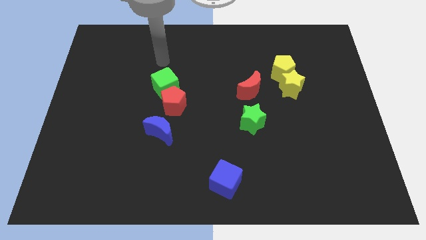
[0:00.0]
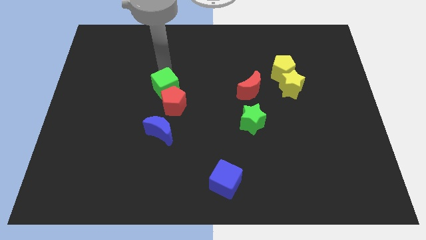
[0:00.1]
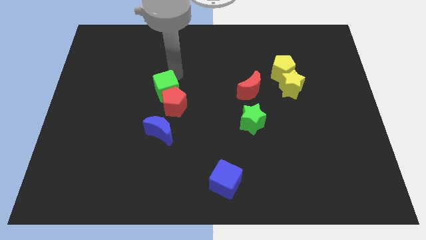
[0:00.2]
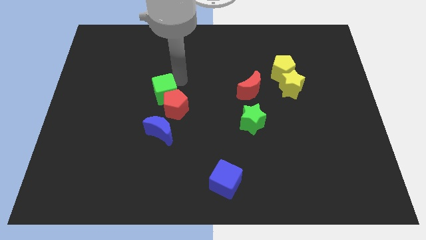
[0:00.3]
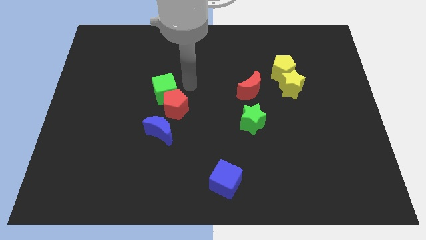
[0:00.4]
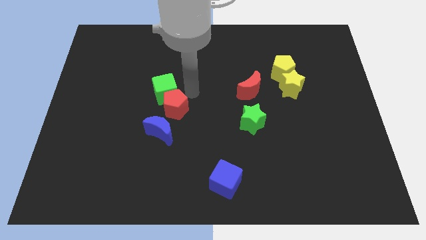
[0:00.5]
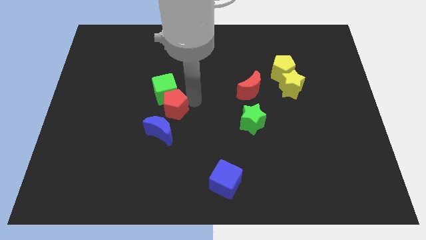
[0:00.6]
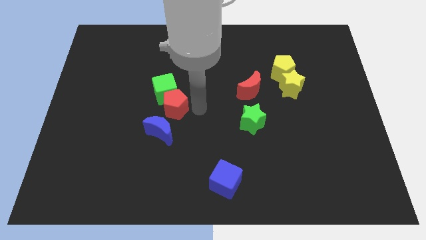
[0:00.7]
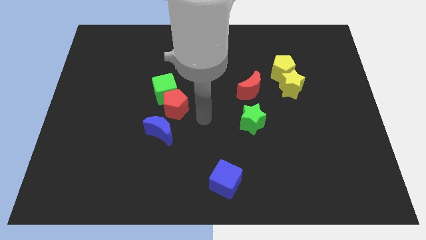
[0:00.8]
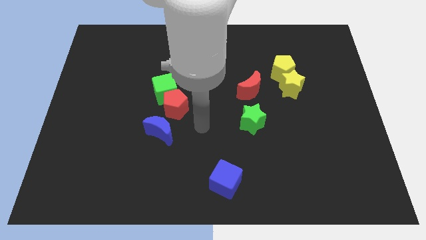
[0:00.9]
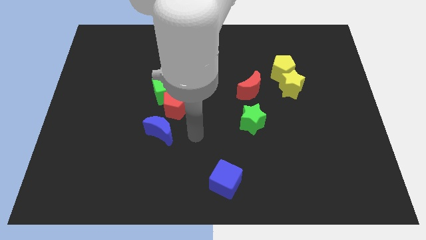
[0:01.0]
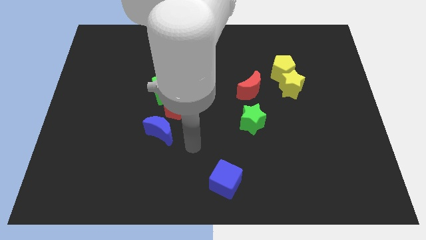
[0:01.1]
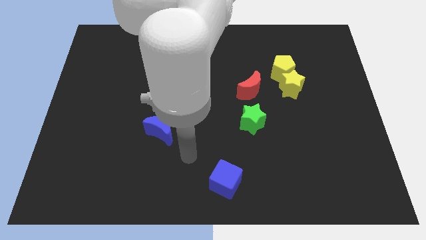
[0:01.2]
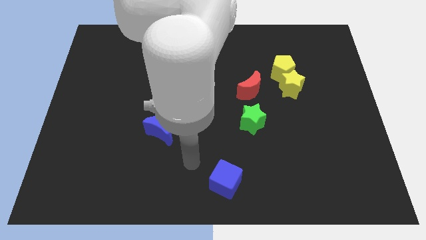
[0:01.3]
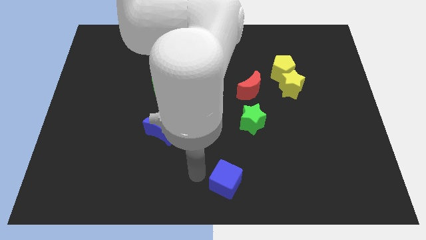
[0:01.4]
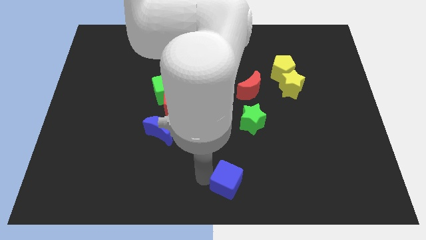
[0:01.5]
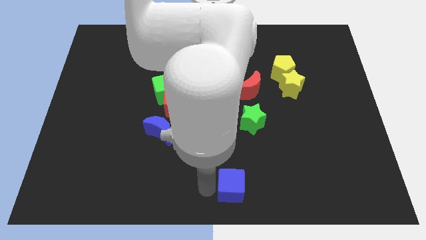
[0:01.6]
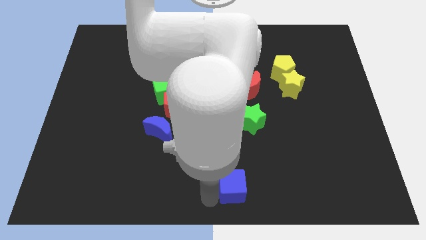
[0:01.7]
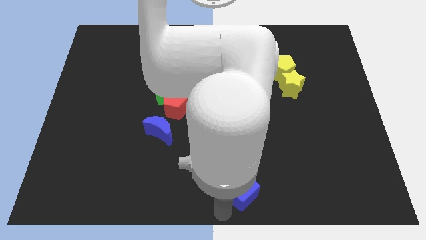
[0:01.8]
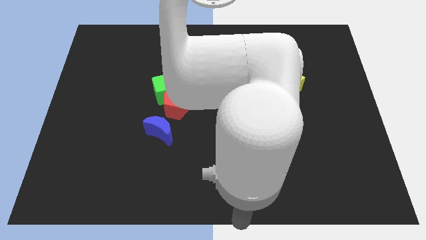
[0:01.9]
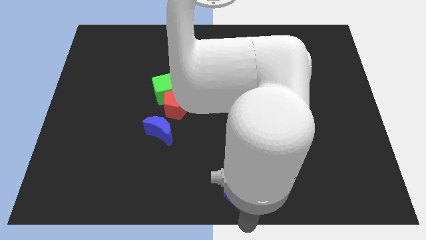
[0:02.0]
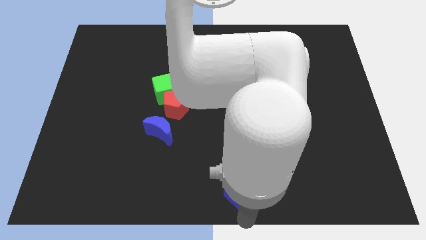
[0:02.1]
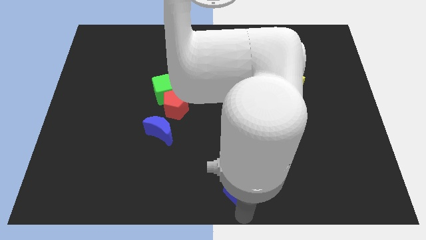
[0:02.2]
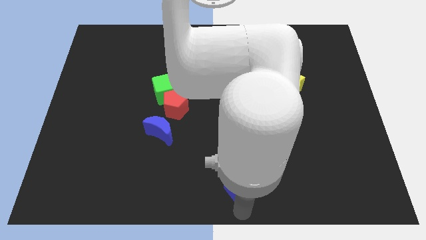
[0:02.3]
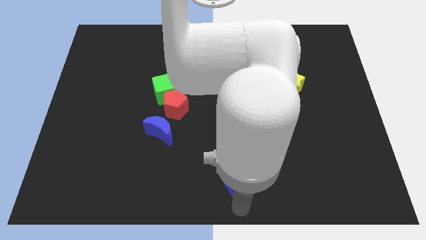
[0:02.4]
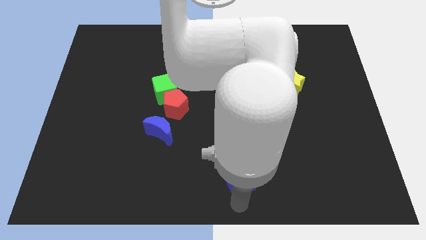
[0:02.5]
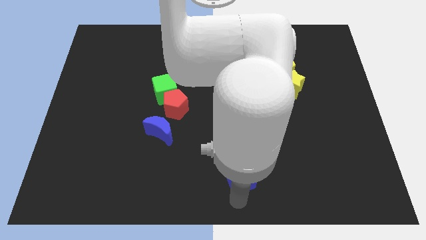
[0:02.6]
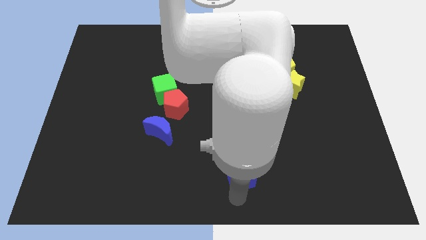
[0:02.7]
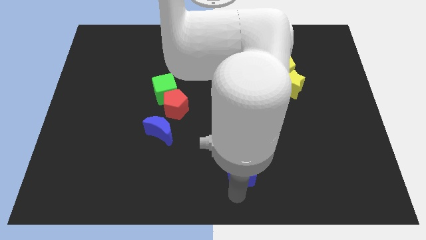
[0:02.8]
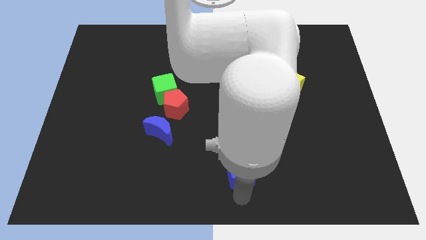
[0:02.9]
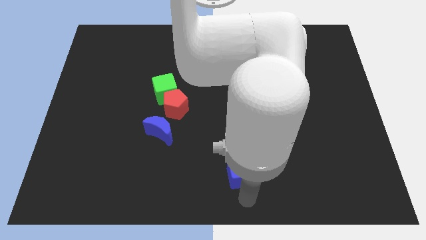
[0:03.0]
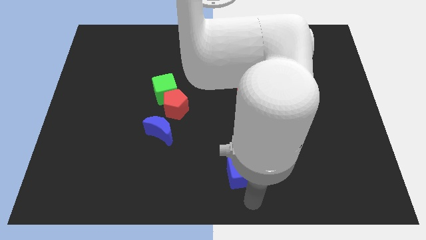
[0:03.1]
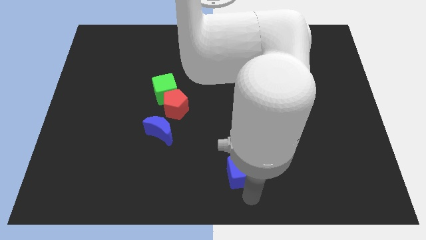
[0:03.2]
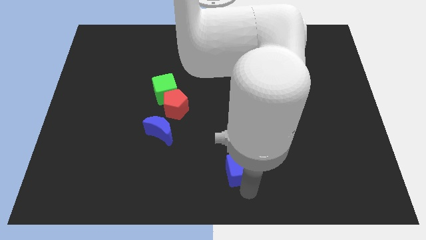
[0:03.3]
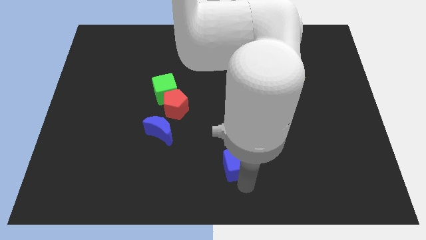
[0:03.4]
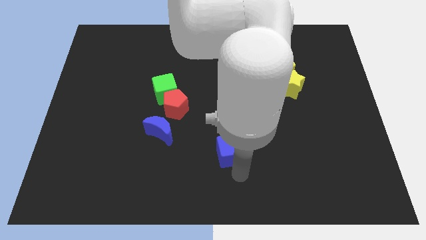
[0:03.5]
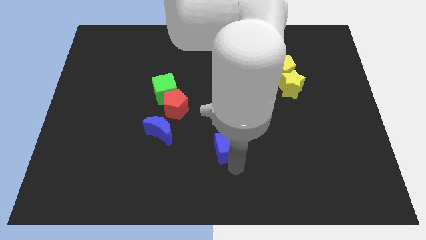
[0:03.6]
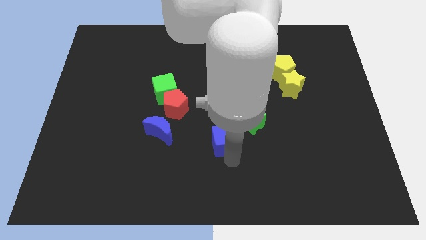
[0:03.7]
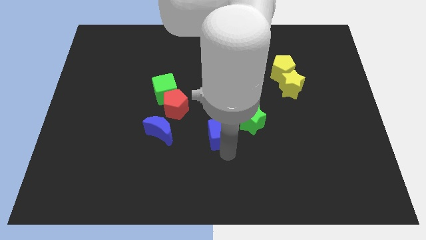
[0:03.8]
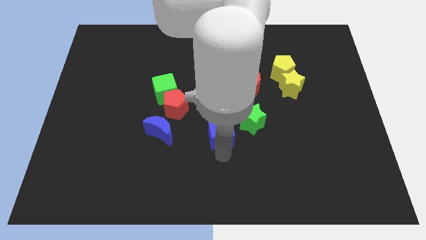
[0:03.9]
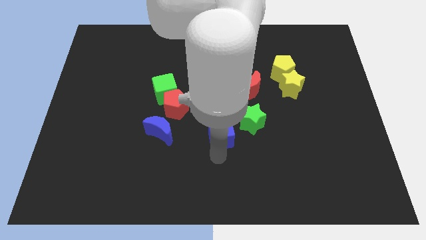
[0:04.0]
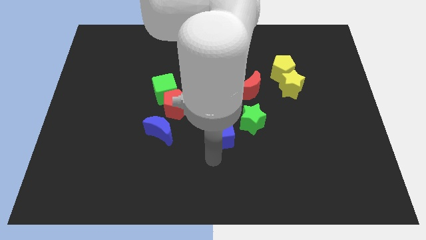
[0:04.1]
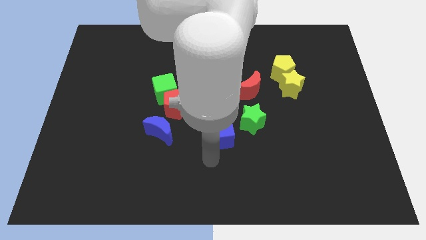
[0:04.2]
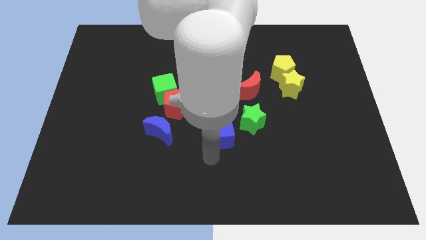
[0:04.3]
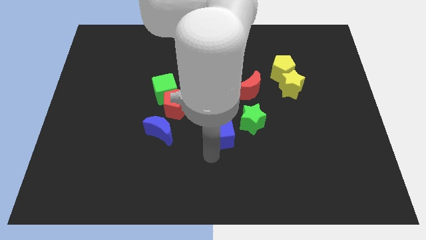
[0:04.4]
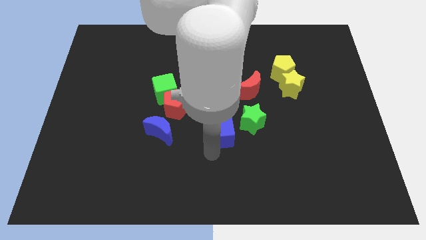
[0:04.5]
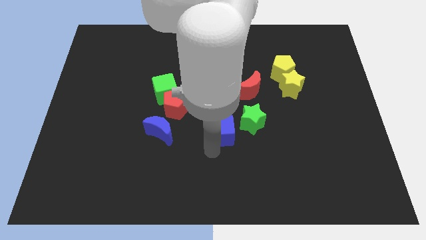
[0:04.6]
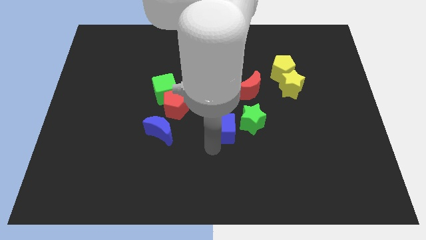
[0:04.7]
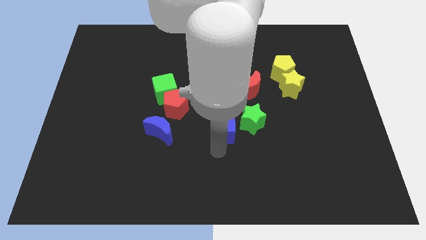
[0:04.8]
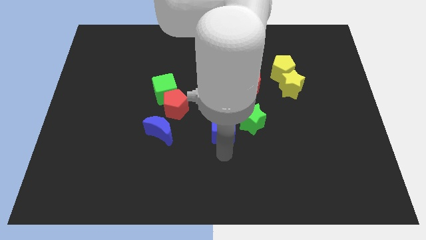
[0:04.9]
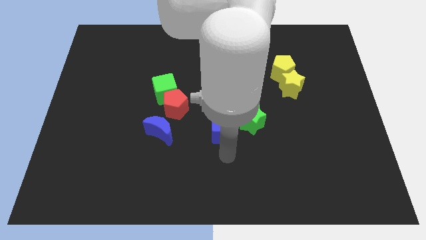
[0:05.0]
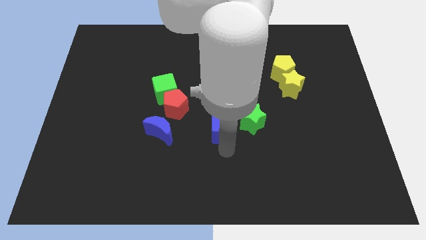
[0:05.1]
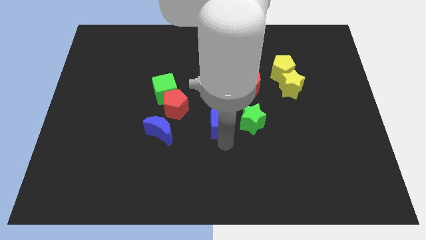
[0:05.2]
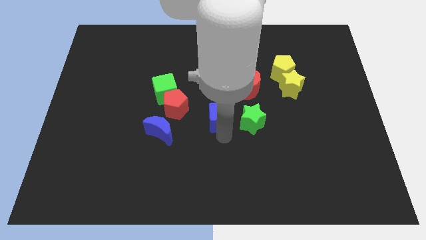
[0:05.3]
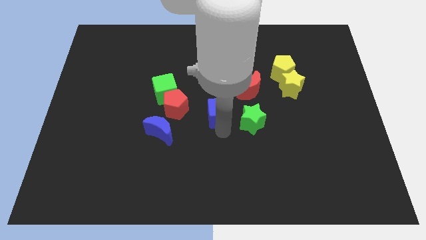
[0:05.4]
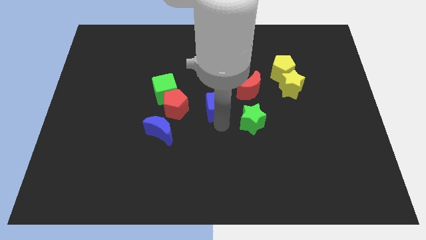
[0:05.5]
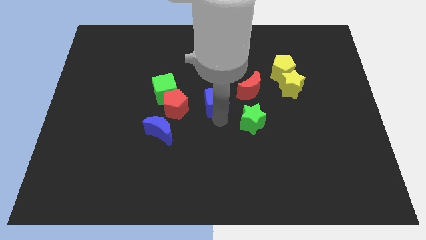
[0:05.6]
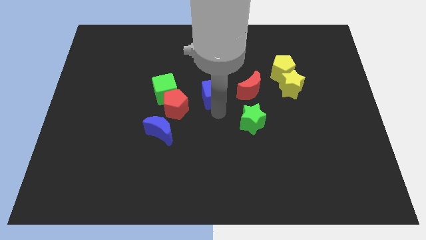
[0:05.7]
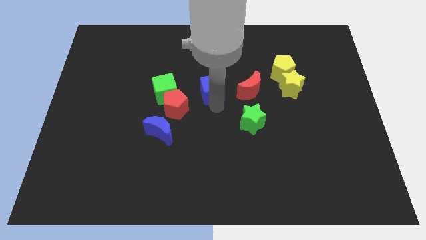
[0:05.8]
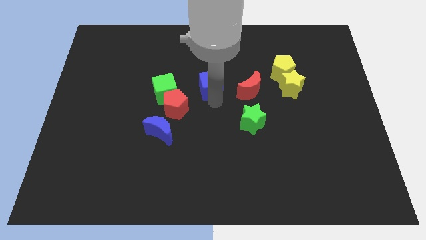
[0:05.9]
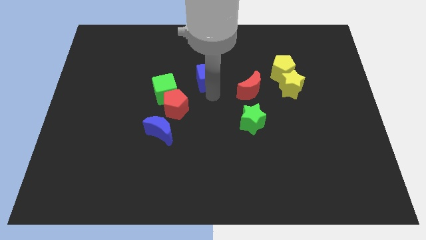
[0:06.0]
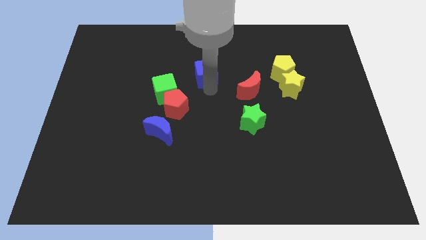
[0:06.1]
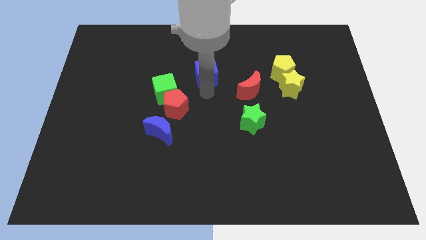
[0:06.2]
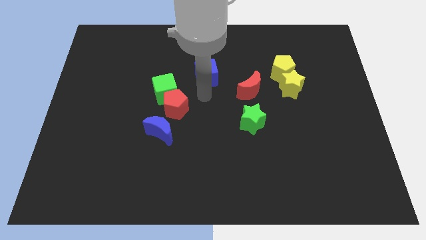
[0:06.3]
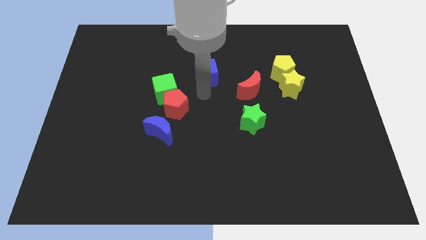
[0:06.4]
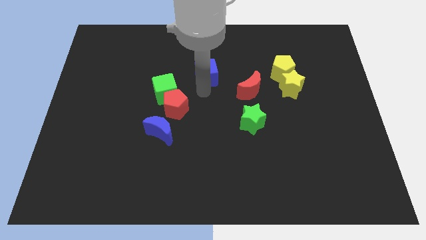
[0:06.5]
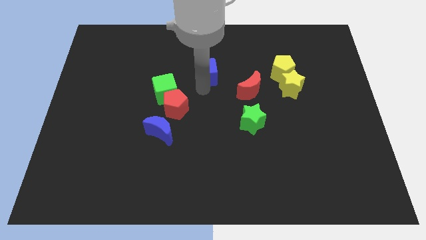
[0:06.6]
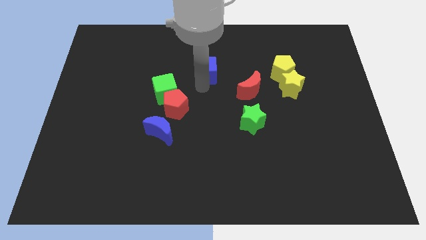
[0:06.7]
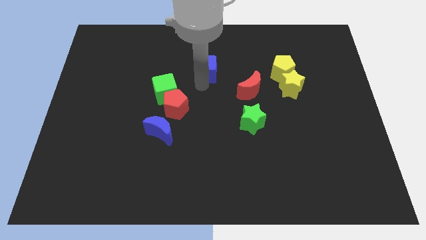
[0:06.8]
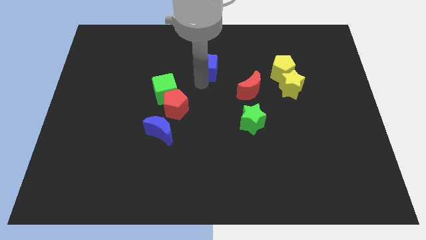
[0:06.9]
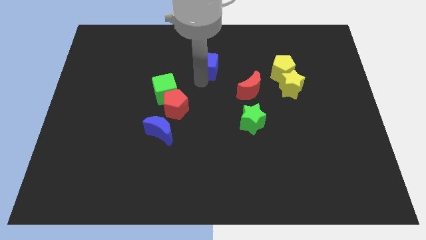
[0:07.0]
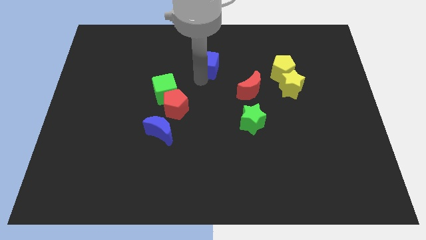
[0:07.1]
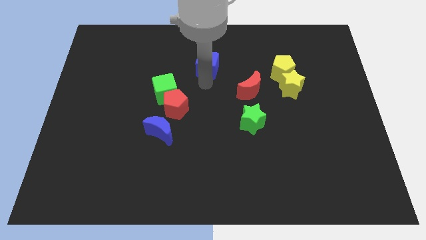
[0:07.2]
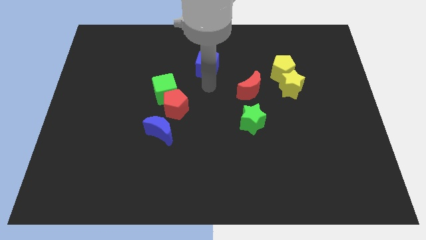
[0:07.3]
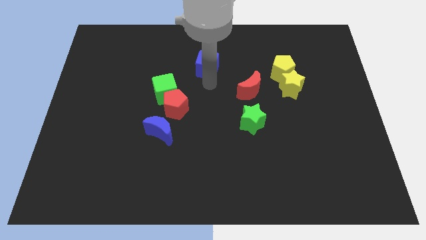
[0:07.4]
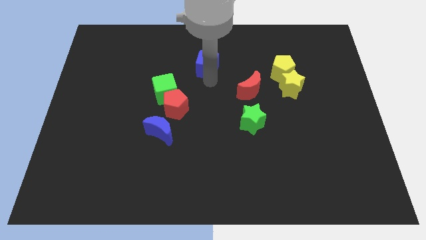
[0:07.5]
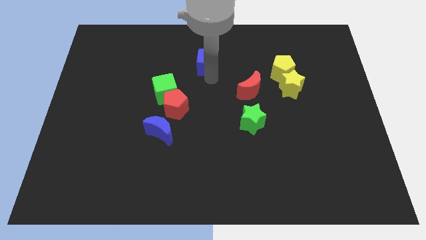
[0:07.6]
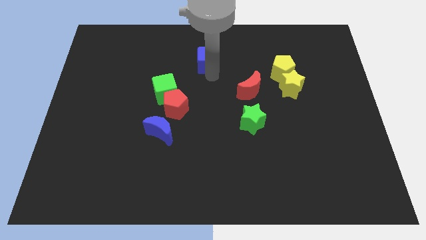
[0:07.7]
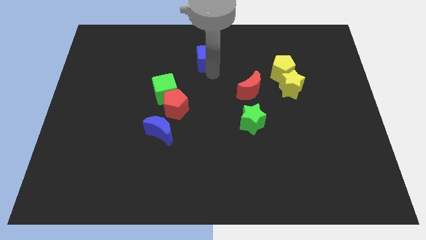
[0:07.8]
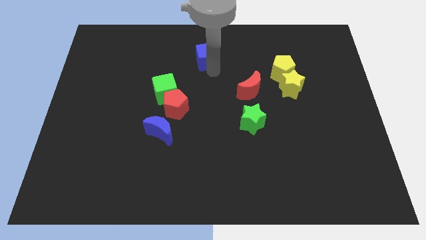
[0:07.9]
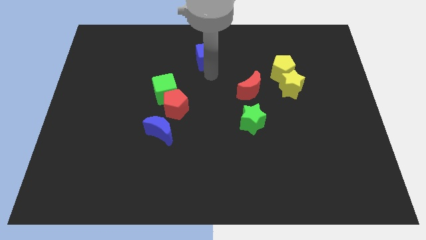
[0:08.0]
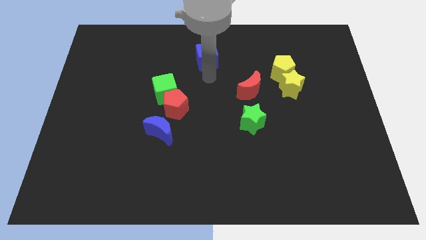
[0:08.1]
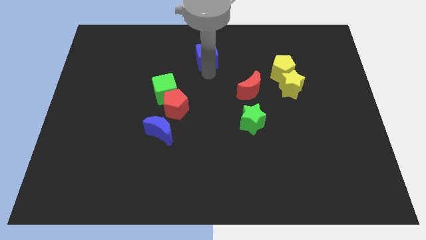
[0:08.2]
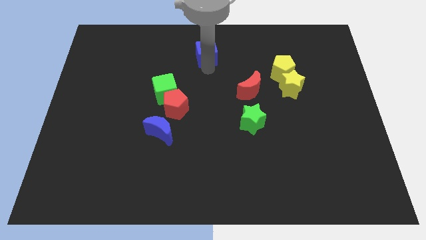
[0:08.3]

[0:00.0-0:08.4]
put the blue cube to the top
